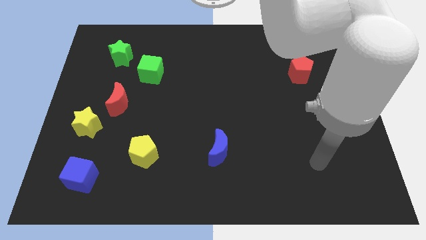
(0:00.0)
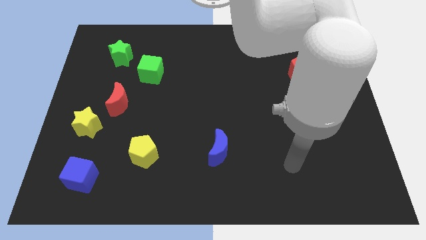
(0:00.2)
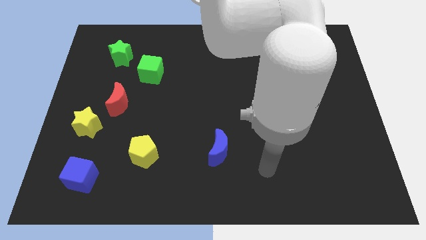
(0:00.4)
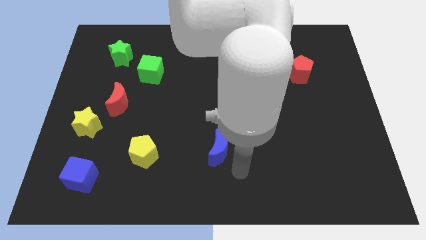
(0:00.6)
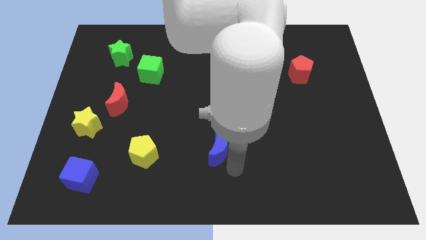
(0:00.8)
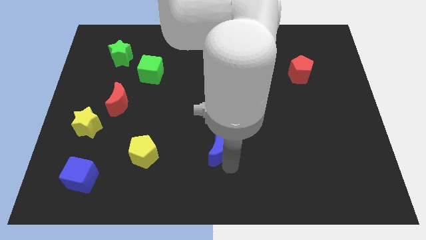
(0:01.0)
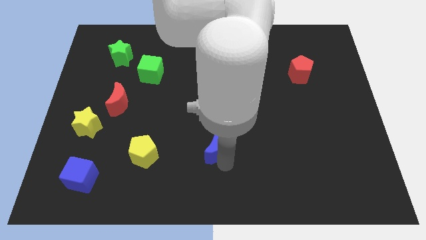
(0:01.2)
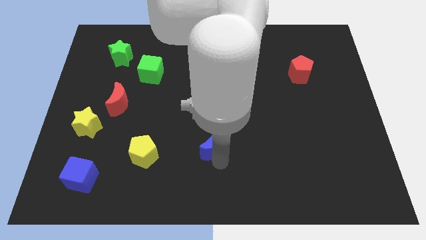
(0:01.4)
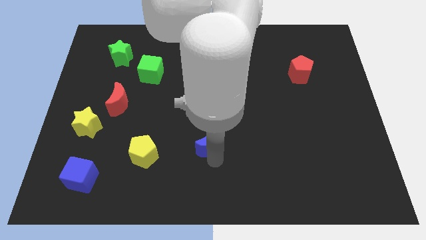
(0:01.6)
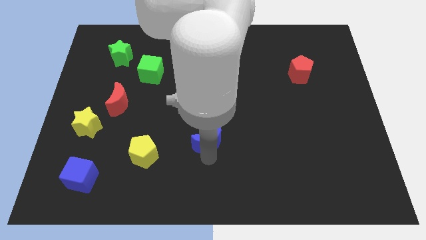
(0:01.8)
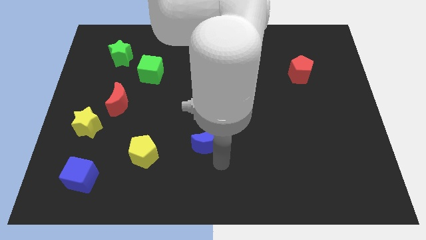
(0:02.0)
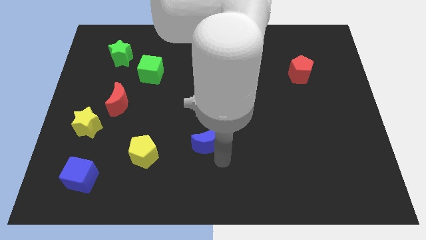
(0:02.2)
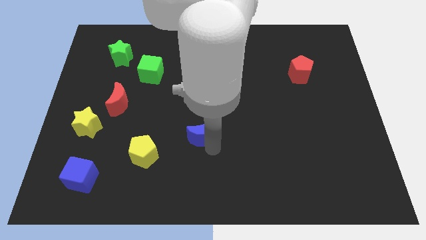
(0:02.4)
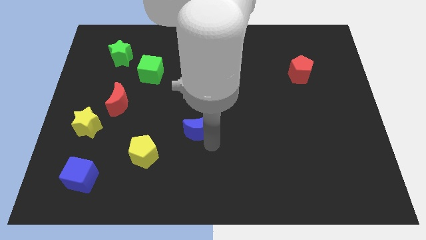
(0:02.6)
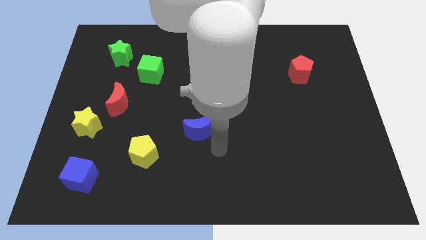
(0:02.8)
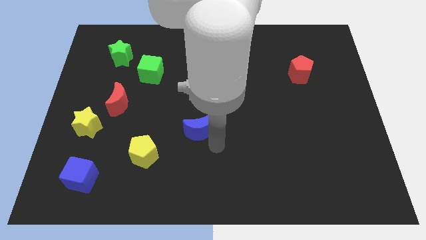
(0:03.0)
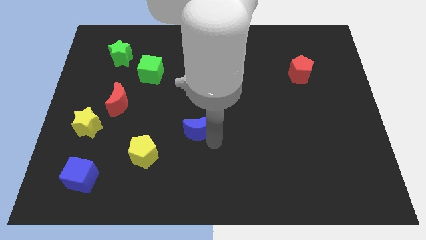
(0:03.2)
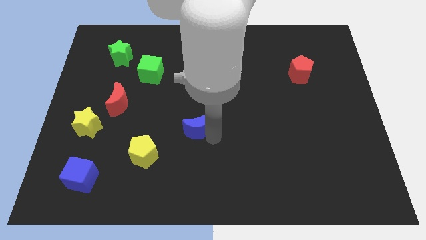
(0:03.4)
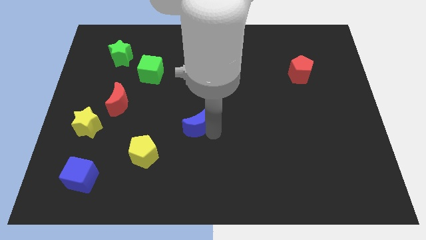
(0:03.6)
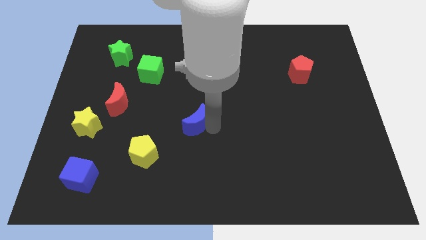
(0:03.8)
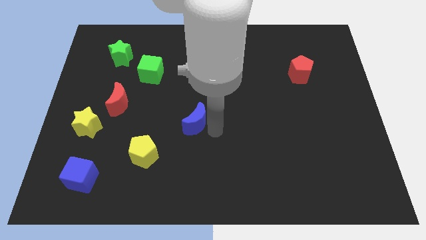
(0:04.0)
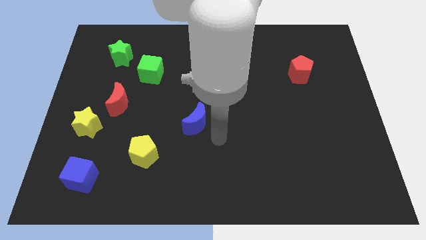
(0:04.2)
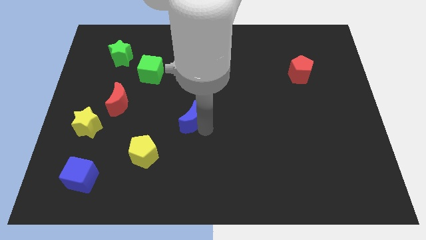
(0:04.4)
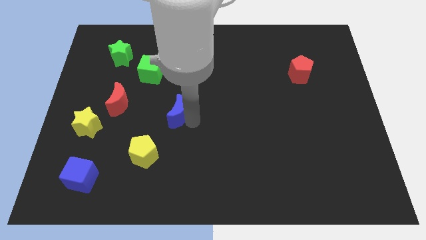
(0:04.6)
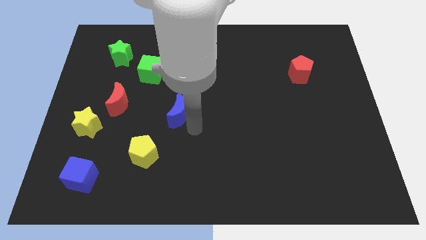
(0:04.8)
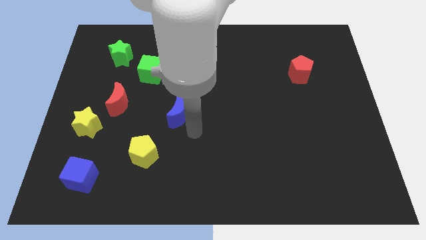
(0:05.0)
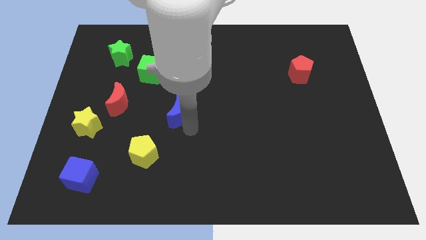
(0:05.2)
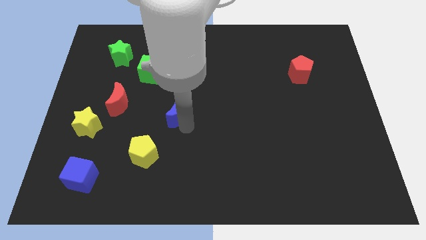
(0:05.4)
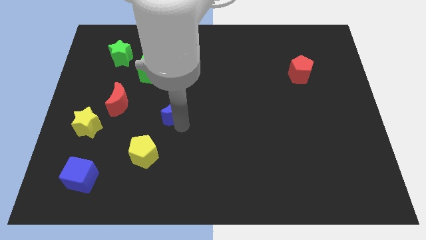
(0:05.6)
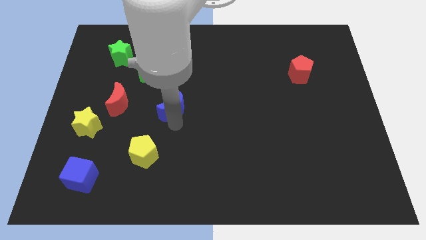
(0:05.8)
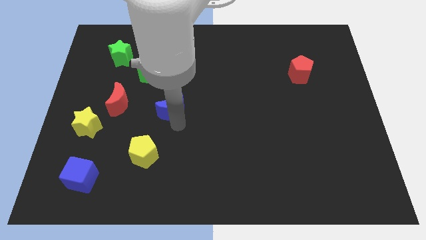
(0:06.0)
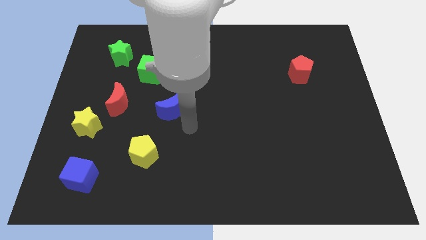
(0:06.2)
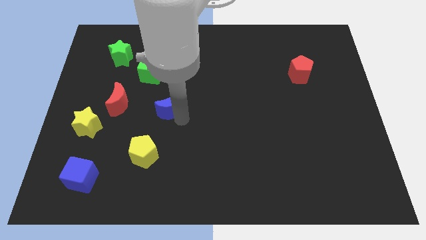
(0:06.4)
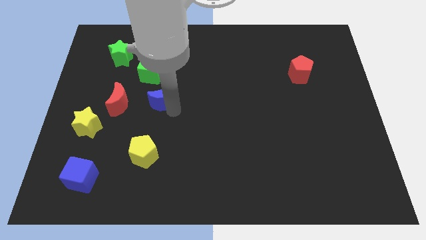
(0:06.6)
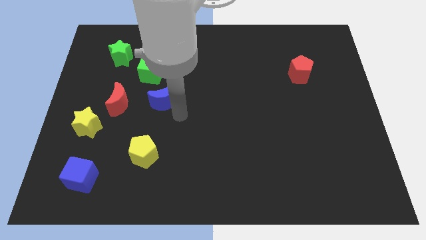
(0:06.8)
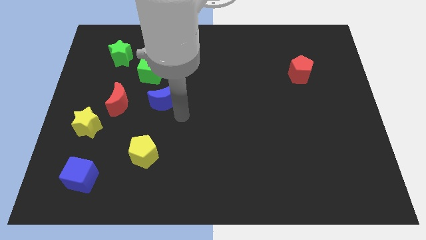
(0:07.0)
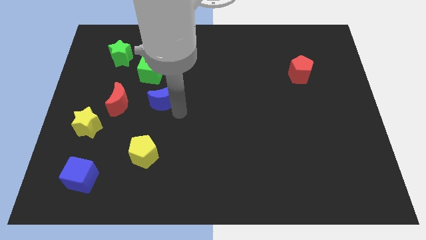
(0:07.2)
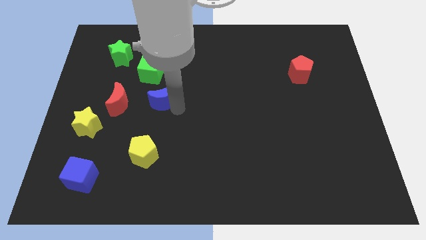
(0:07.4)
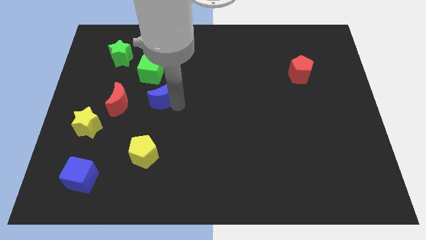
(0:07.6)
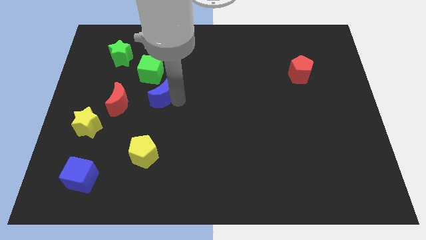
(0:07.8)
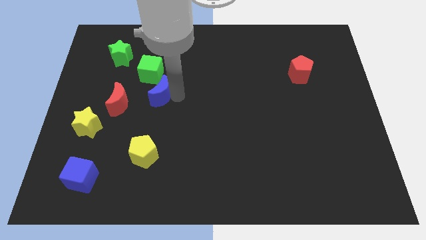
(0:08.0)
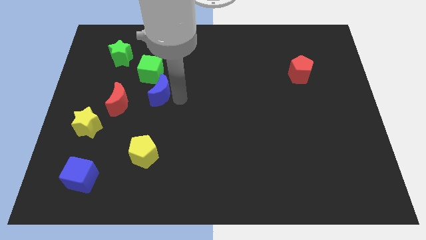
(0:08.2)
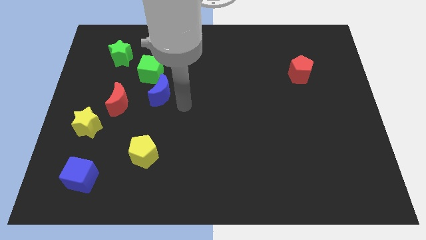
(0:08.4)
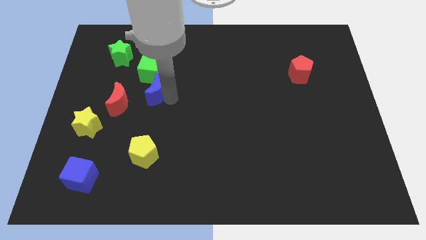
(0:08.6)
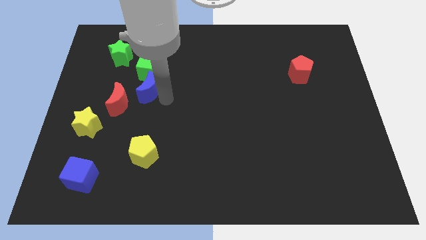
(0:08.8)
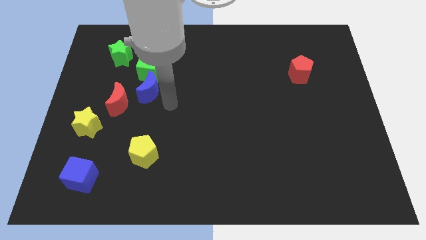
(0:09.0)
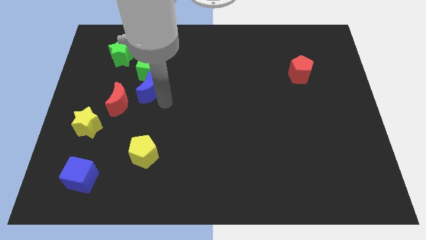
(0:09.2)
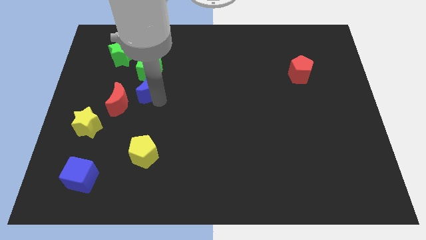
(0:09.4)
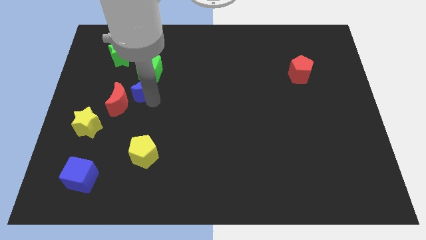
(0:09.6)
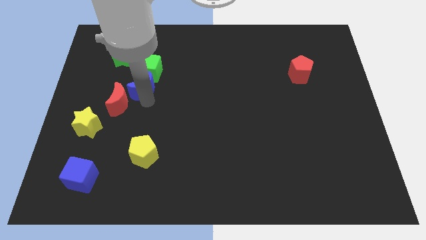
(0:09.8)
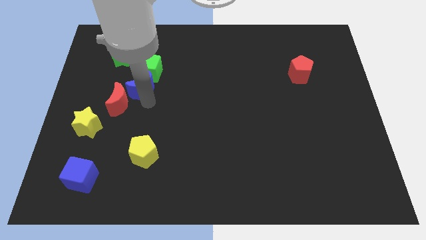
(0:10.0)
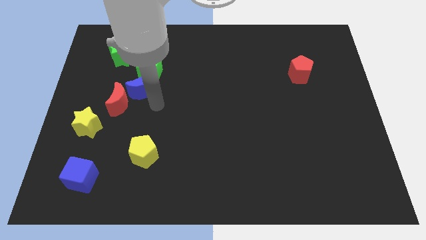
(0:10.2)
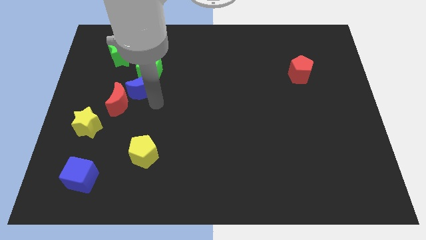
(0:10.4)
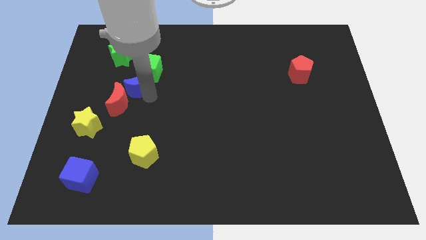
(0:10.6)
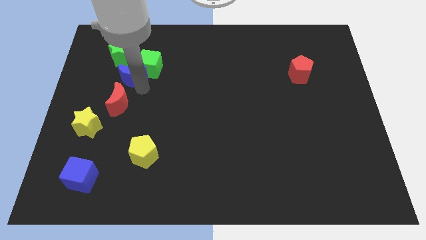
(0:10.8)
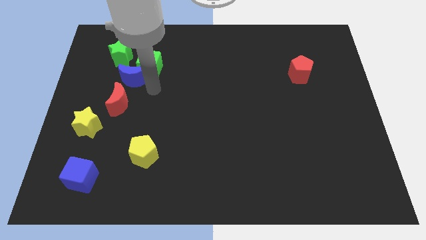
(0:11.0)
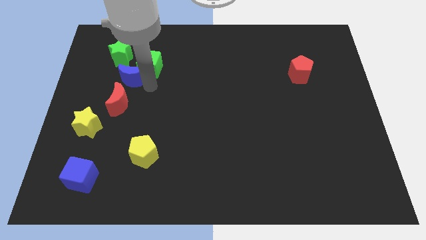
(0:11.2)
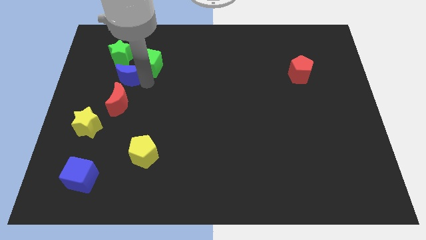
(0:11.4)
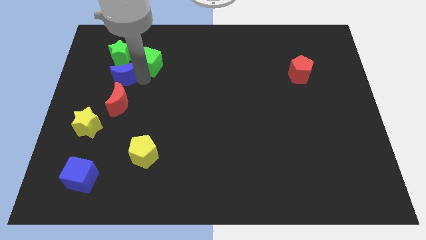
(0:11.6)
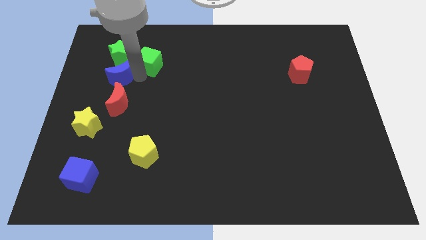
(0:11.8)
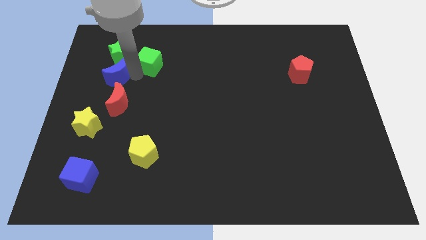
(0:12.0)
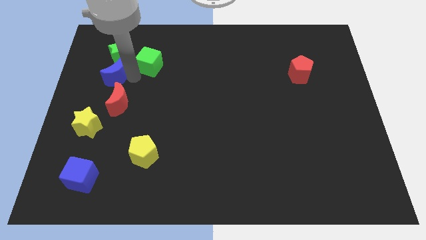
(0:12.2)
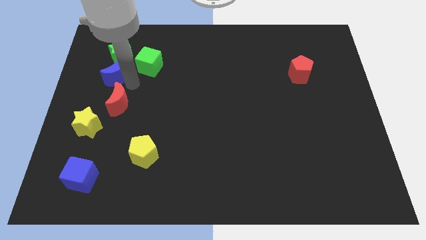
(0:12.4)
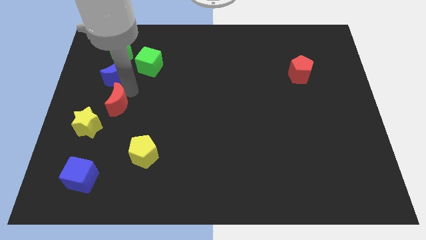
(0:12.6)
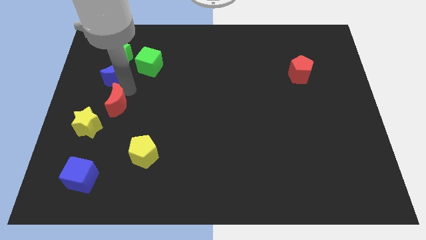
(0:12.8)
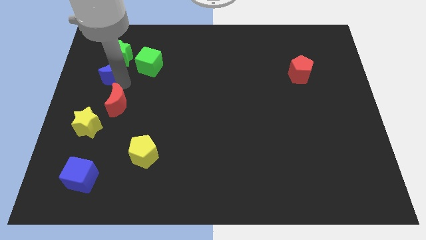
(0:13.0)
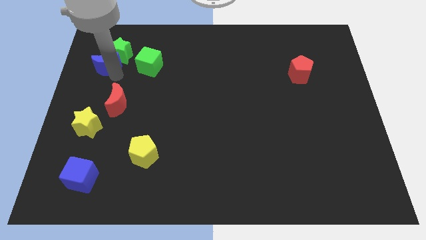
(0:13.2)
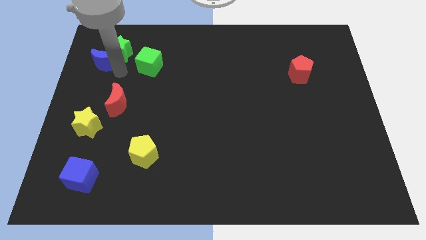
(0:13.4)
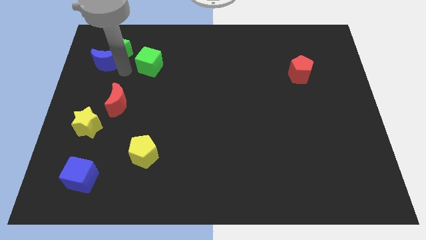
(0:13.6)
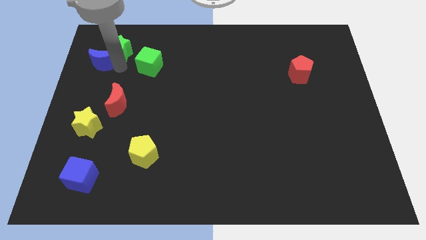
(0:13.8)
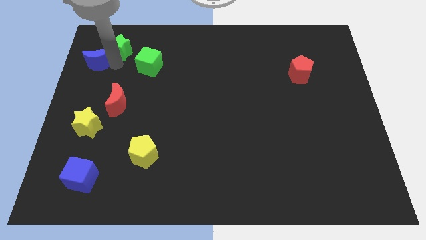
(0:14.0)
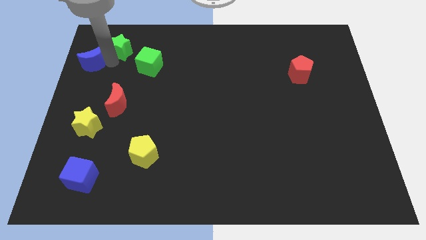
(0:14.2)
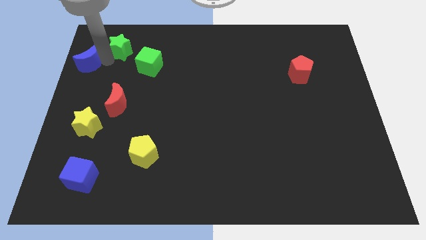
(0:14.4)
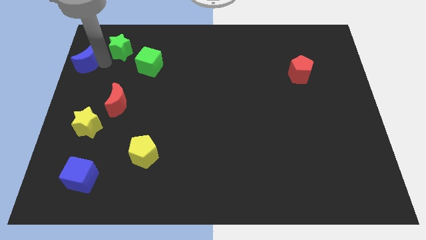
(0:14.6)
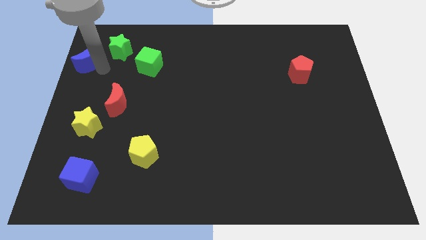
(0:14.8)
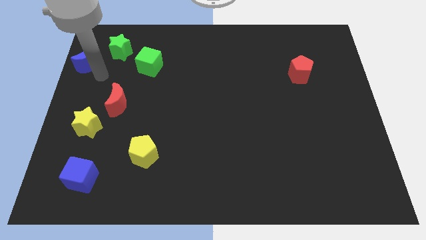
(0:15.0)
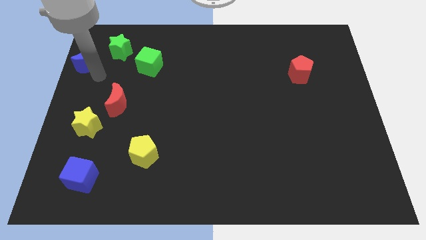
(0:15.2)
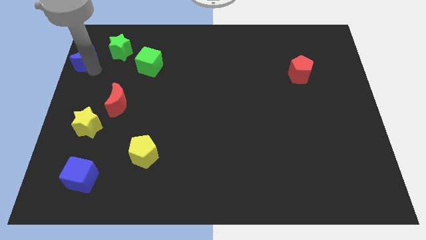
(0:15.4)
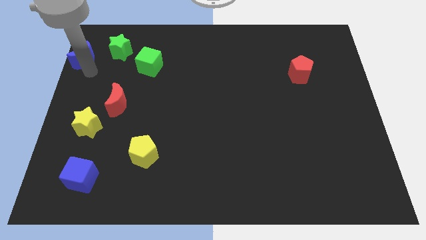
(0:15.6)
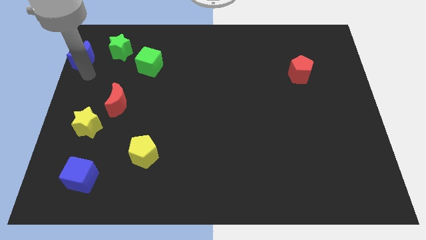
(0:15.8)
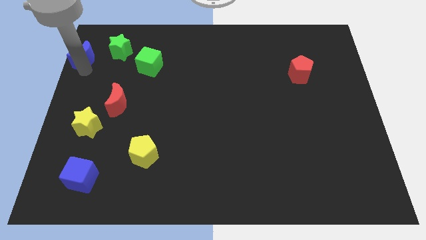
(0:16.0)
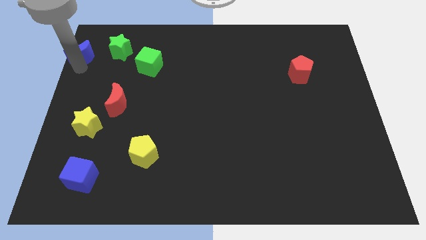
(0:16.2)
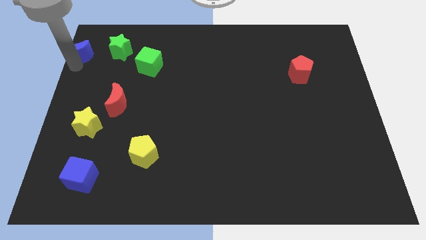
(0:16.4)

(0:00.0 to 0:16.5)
put the blue moon to the top left
